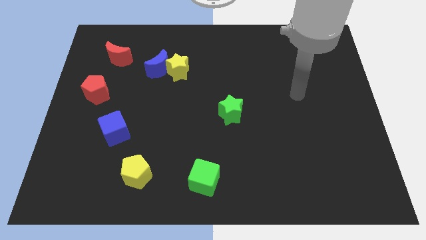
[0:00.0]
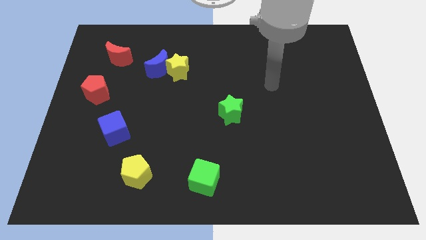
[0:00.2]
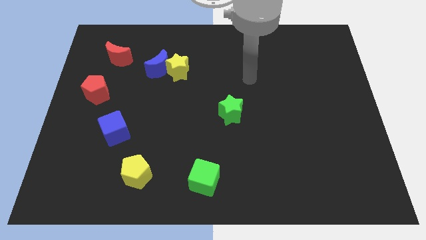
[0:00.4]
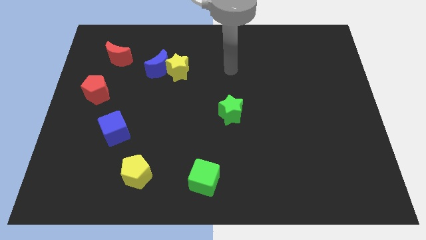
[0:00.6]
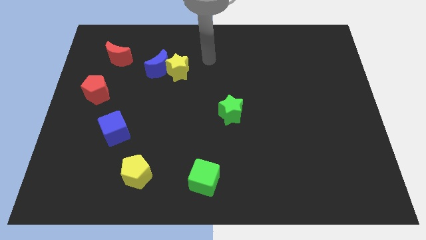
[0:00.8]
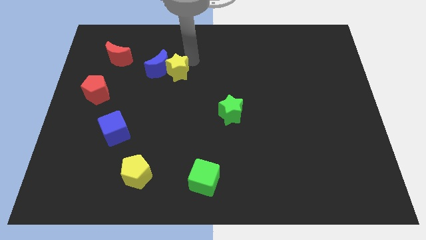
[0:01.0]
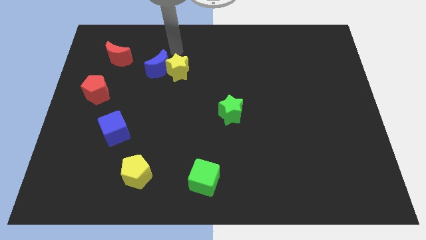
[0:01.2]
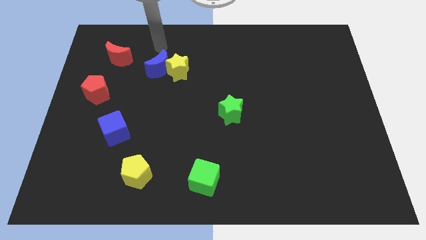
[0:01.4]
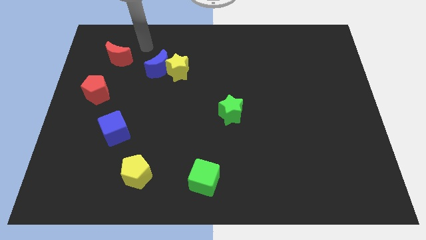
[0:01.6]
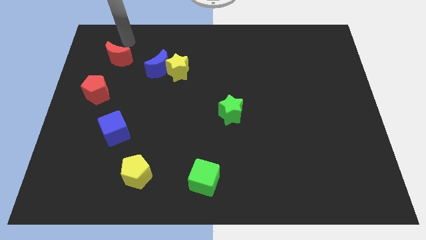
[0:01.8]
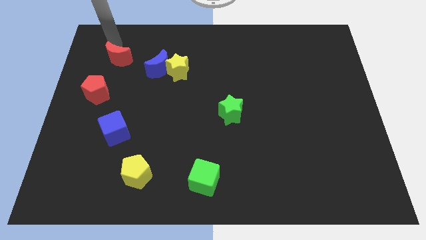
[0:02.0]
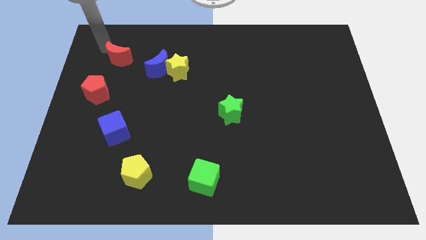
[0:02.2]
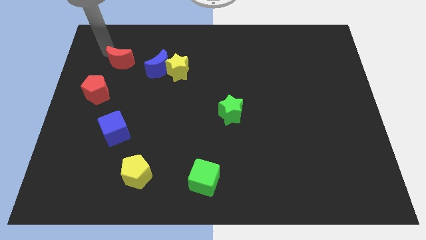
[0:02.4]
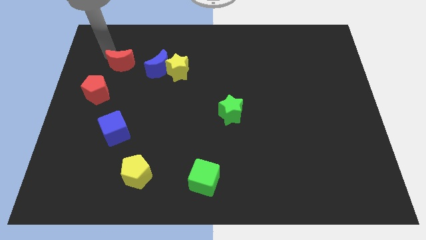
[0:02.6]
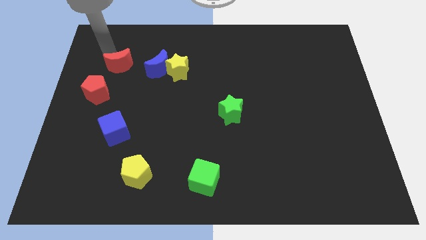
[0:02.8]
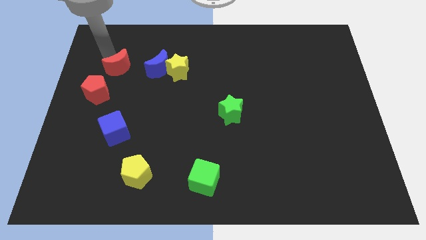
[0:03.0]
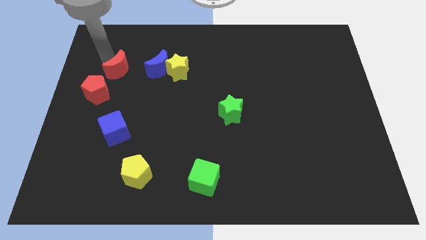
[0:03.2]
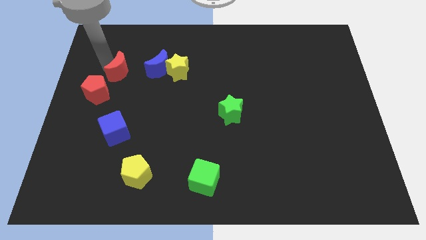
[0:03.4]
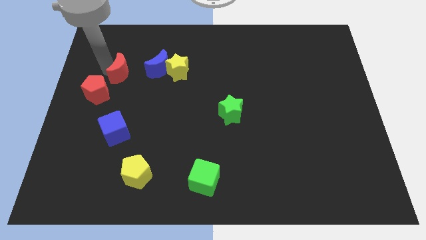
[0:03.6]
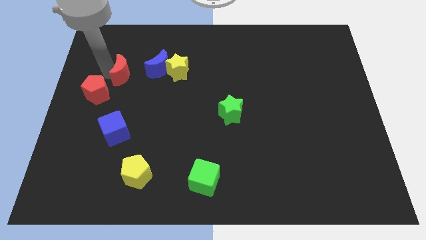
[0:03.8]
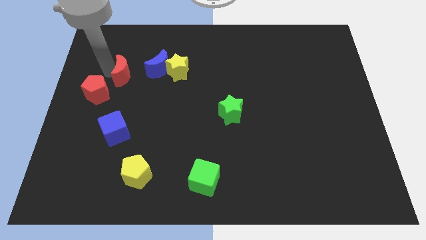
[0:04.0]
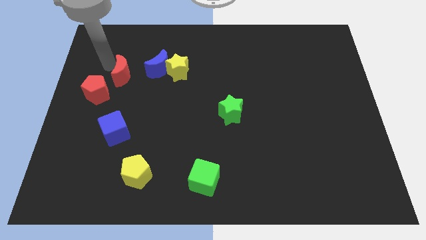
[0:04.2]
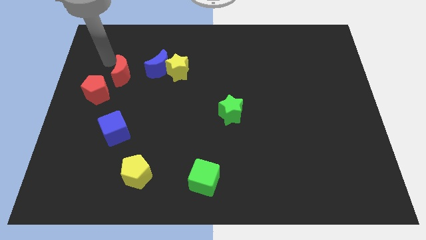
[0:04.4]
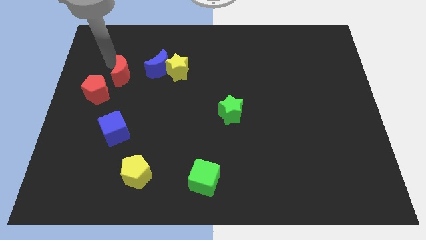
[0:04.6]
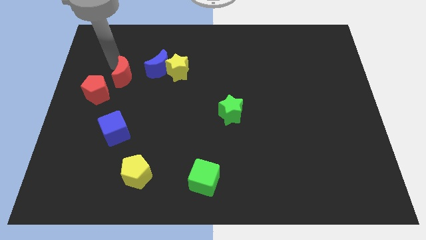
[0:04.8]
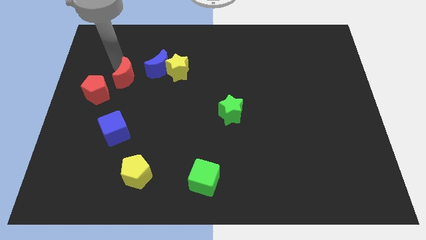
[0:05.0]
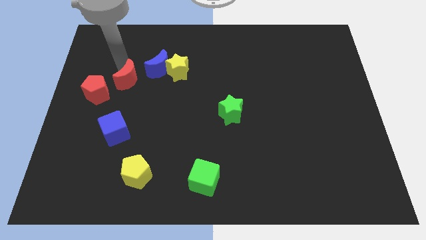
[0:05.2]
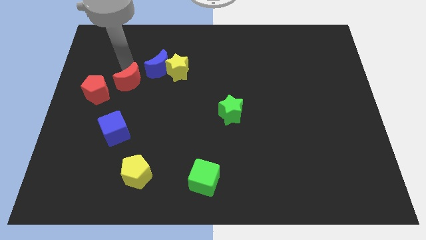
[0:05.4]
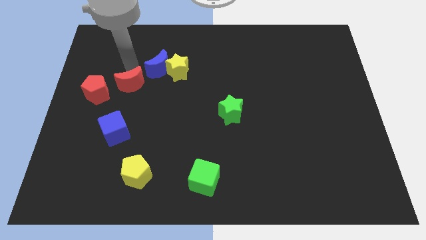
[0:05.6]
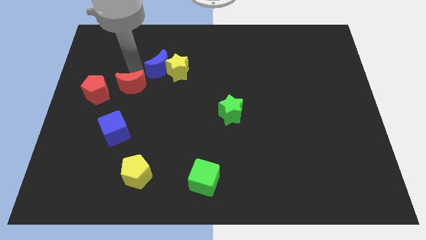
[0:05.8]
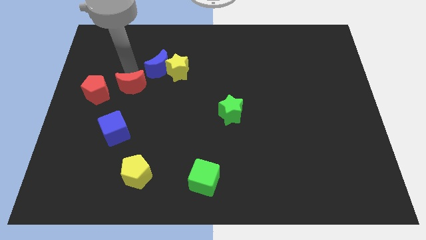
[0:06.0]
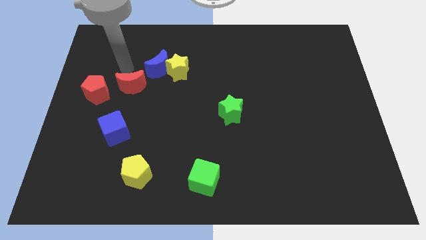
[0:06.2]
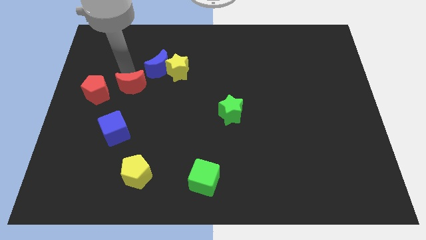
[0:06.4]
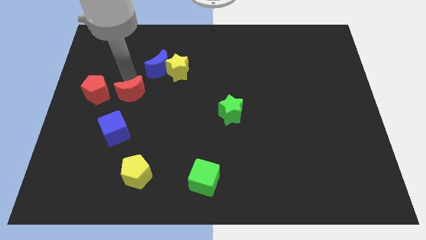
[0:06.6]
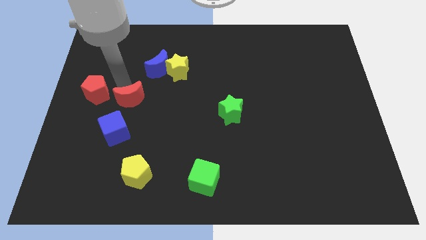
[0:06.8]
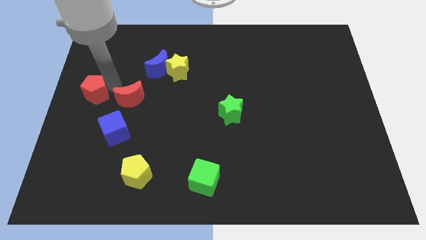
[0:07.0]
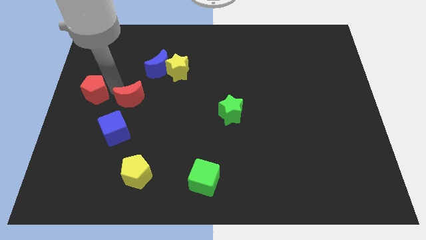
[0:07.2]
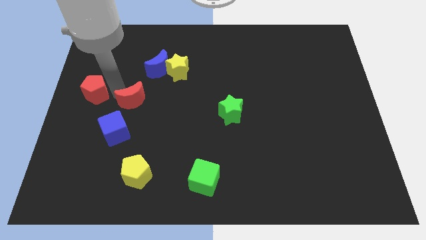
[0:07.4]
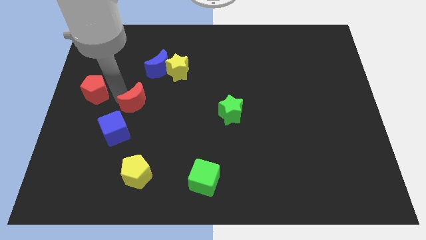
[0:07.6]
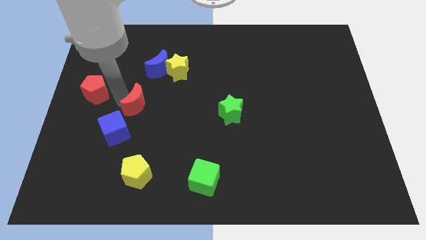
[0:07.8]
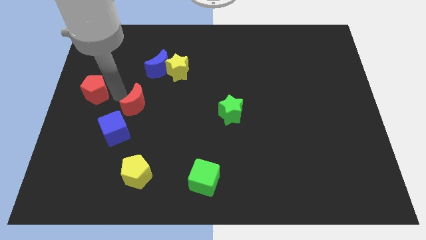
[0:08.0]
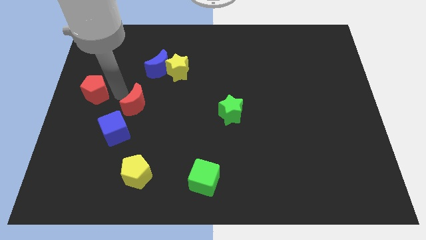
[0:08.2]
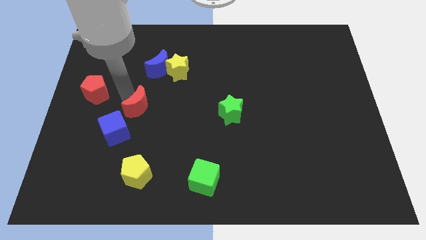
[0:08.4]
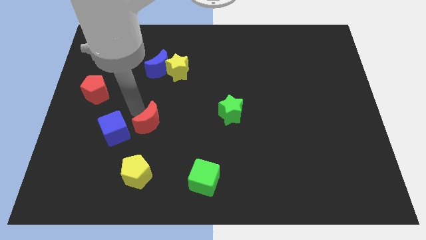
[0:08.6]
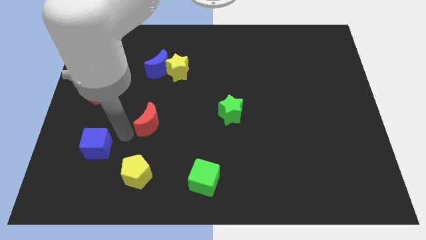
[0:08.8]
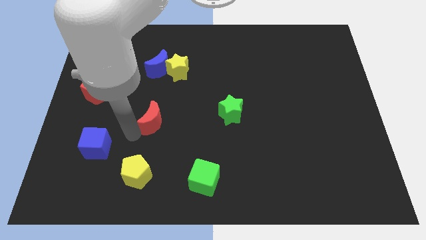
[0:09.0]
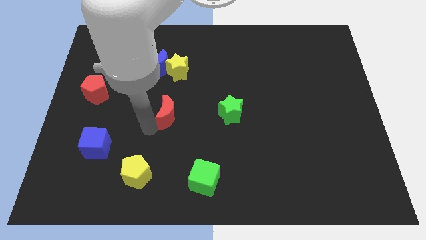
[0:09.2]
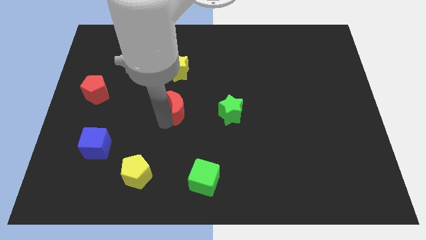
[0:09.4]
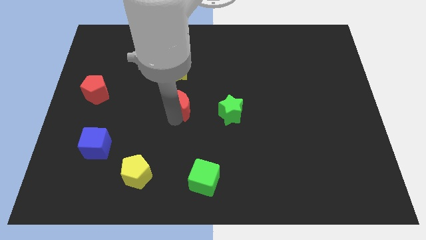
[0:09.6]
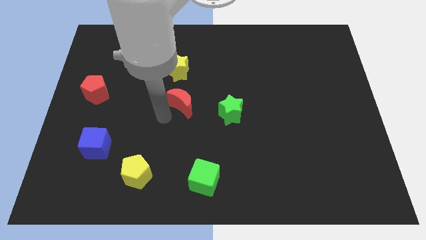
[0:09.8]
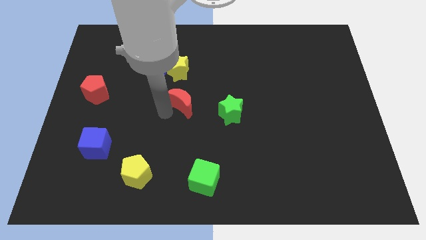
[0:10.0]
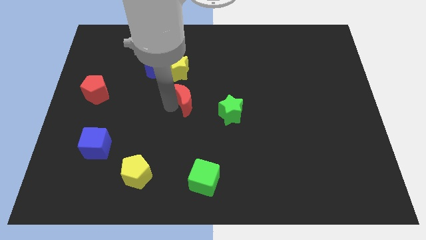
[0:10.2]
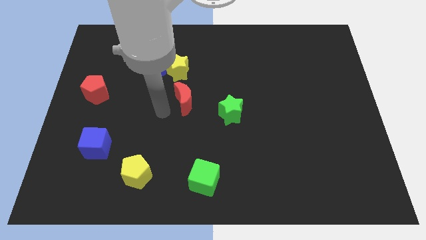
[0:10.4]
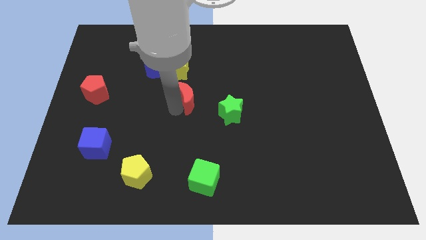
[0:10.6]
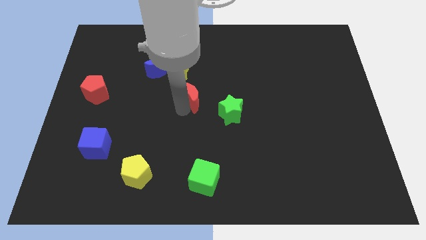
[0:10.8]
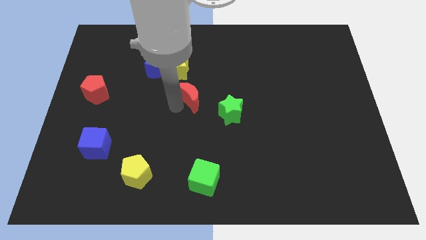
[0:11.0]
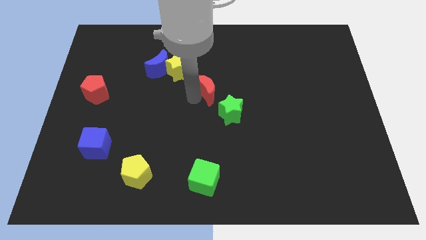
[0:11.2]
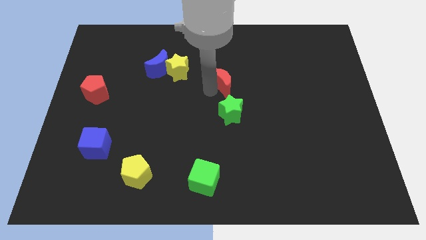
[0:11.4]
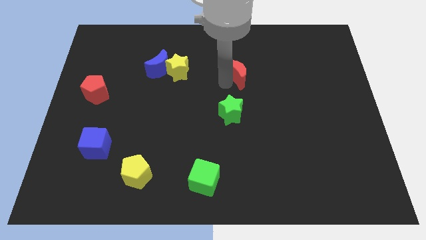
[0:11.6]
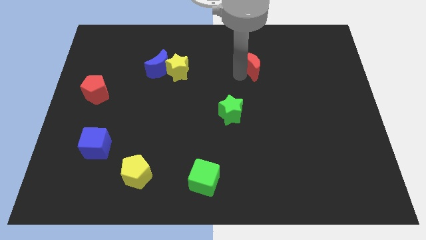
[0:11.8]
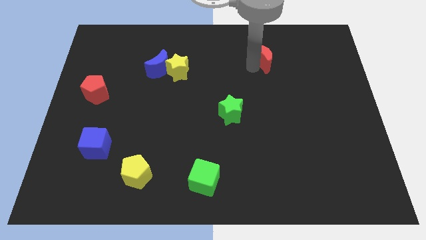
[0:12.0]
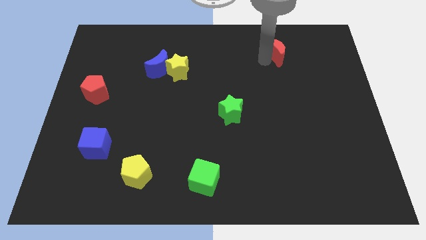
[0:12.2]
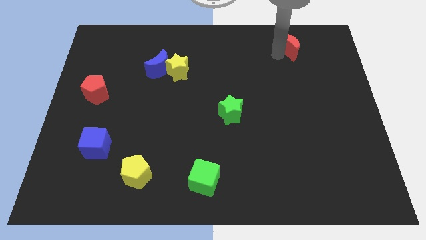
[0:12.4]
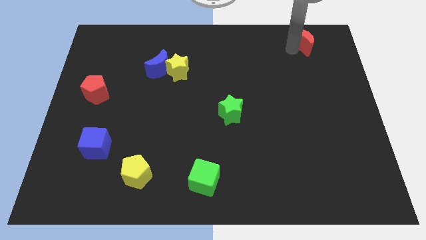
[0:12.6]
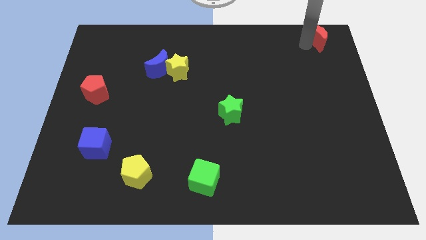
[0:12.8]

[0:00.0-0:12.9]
put the red moon to the top right
